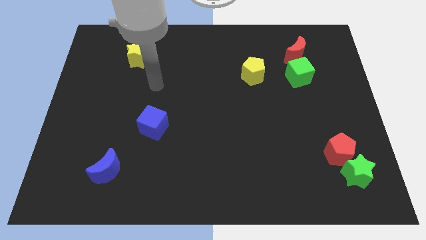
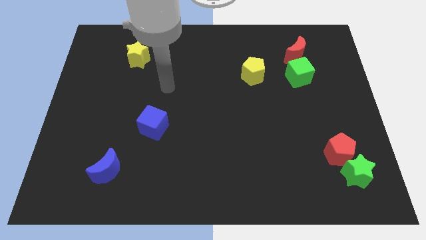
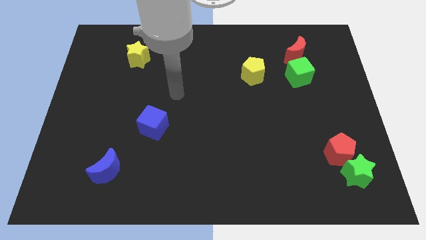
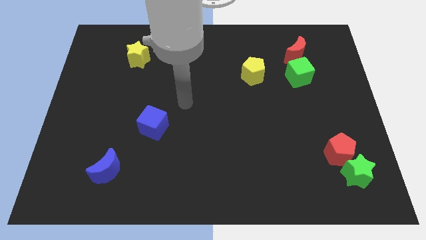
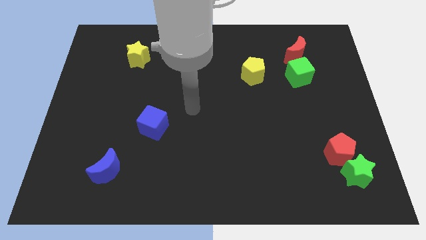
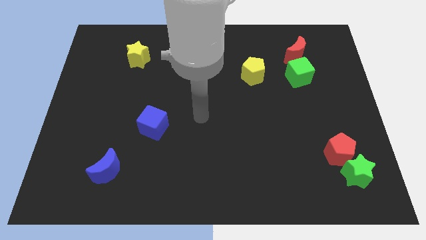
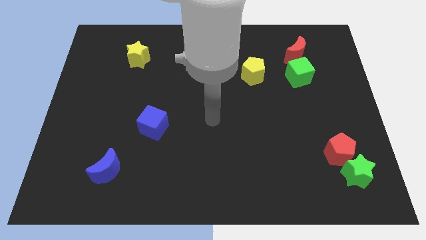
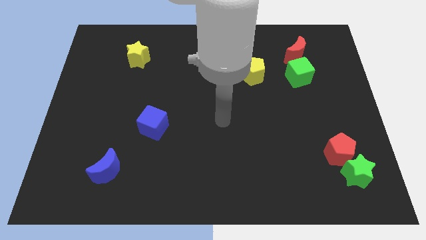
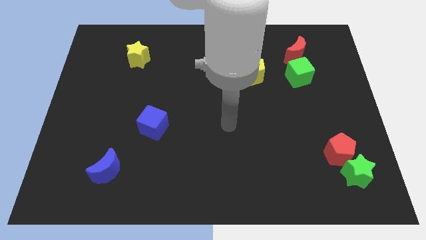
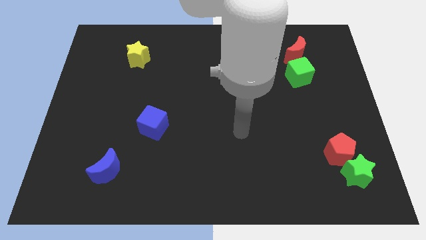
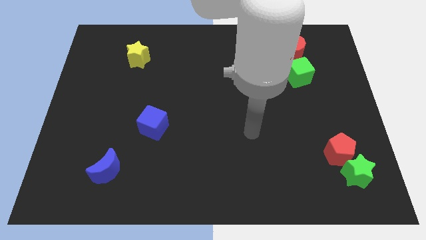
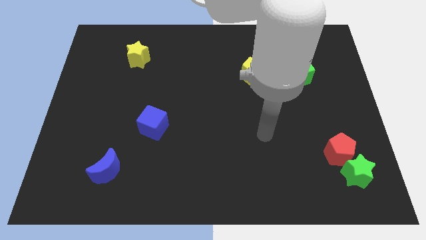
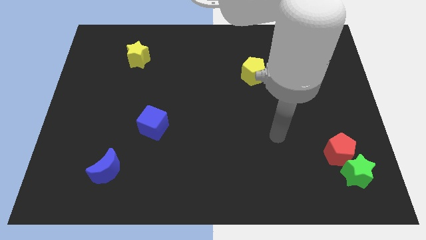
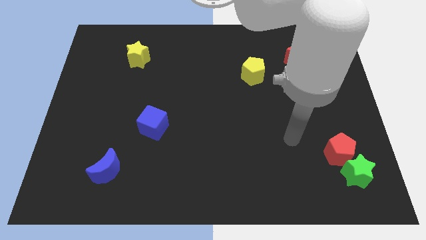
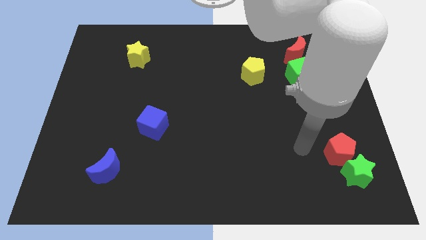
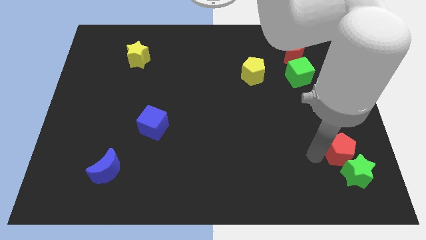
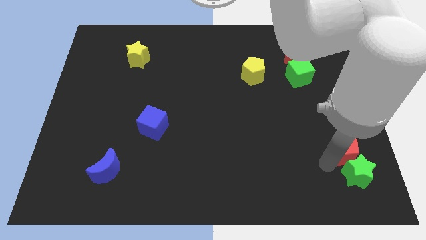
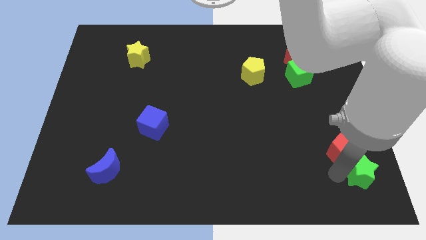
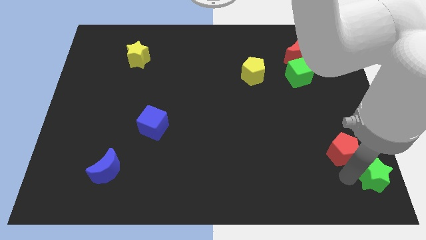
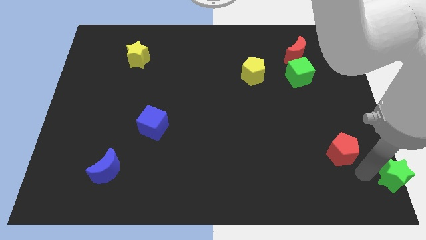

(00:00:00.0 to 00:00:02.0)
pull the red pentagon apart from the green star

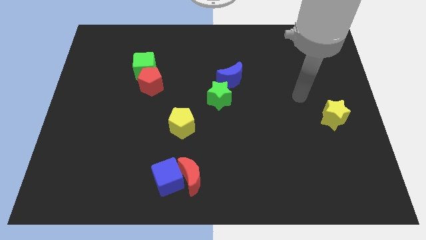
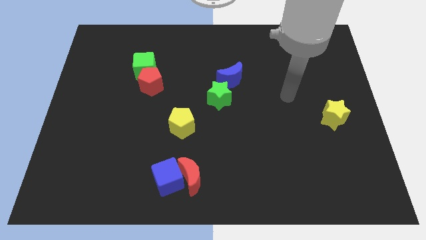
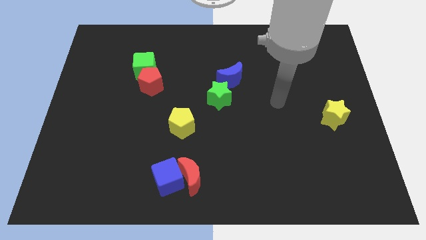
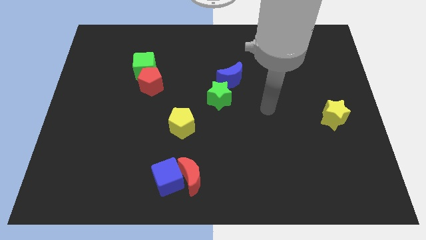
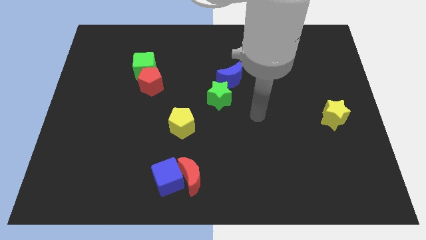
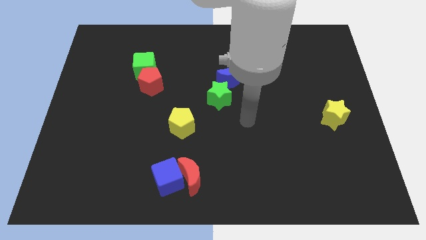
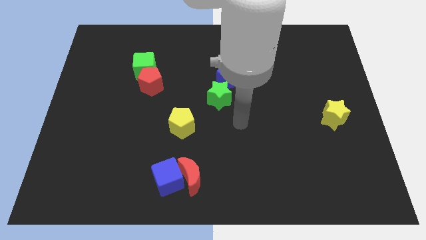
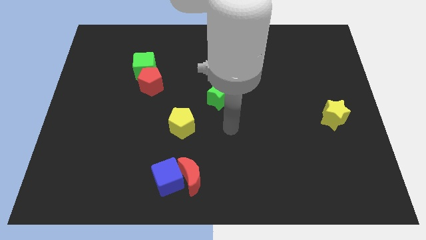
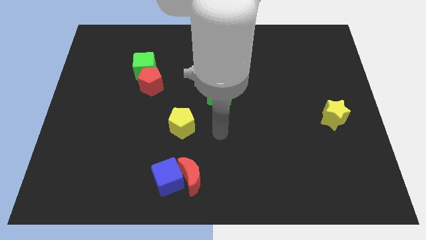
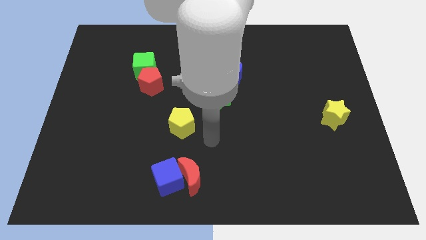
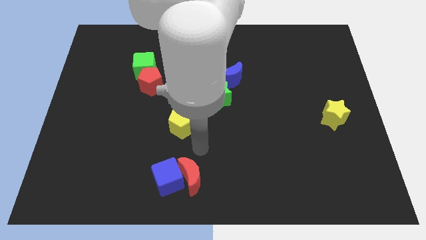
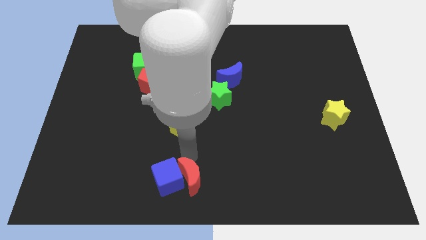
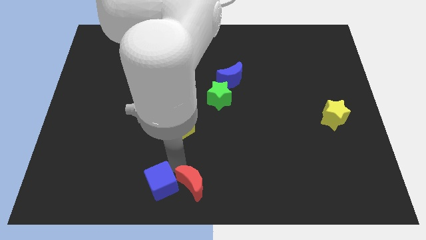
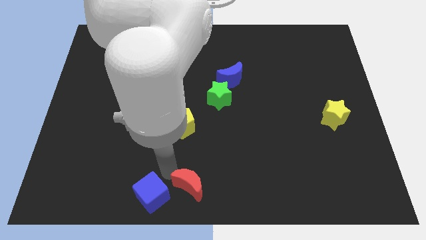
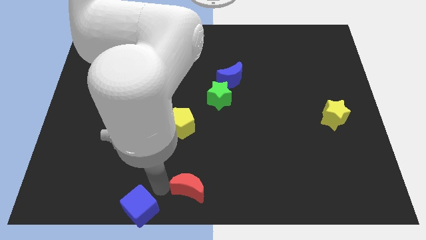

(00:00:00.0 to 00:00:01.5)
move the red moon away from the blue cube

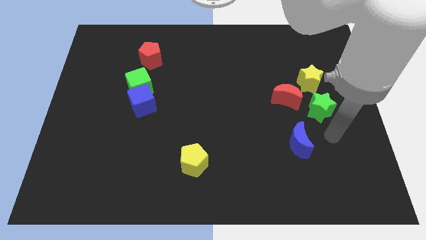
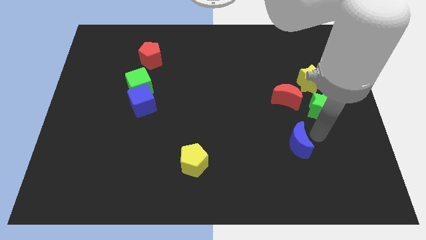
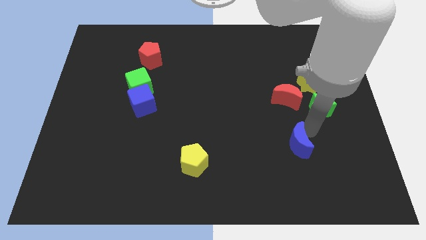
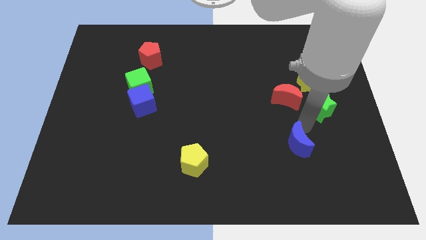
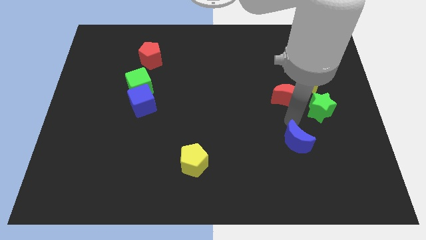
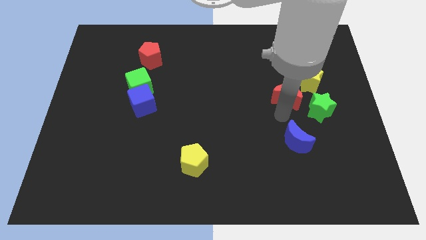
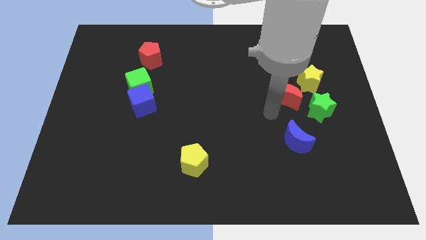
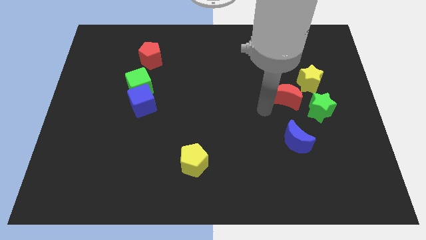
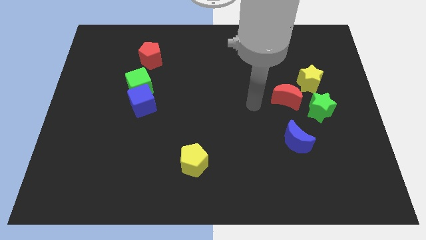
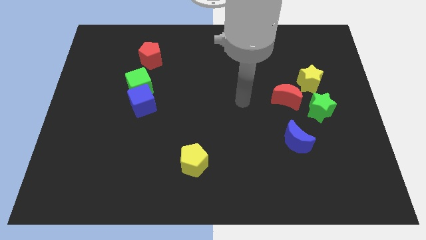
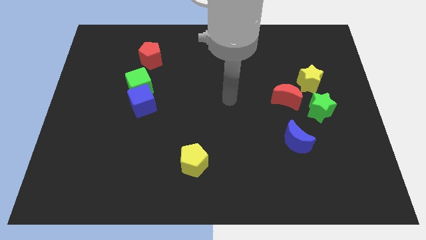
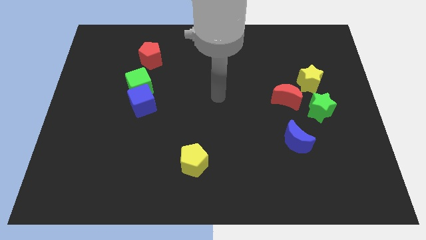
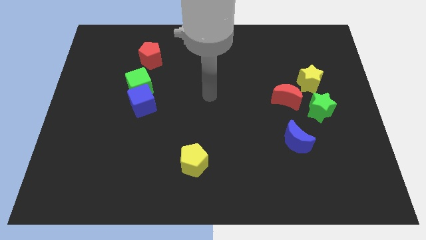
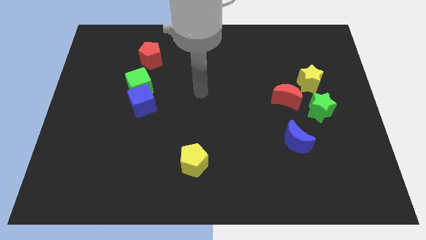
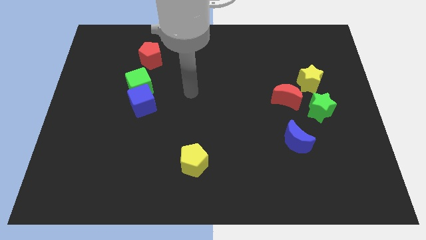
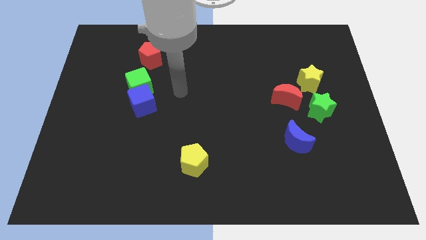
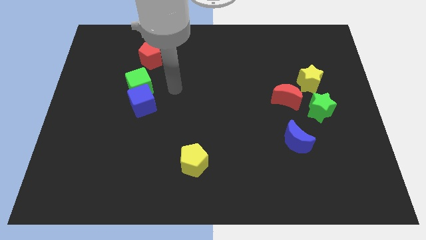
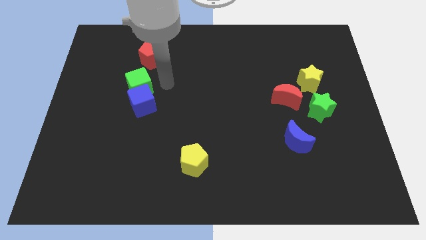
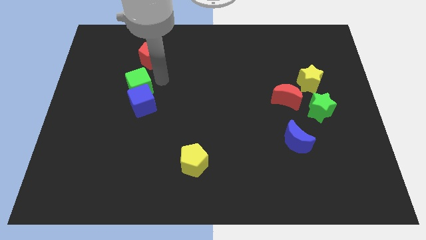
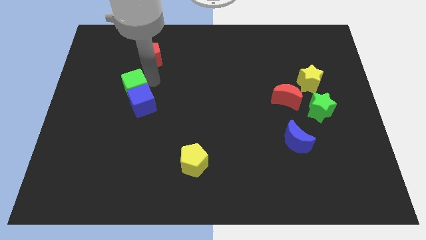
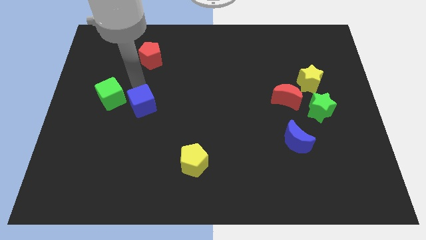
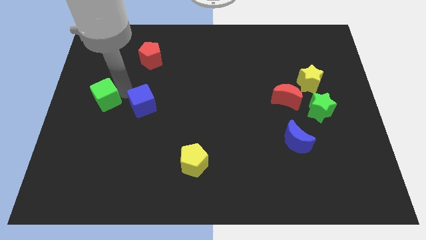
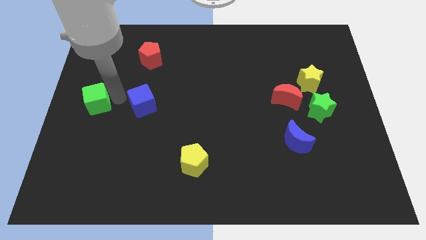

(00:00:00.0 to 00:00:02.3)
move the blue cube away from the green cube

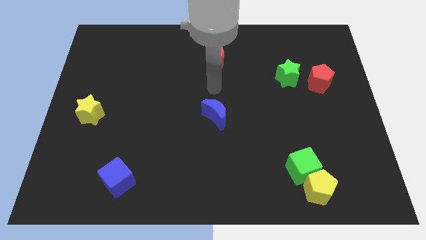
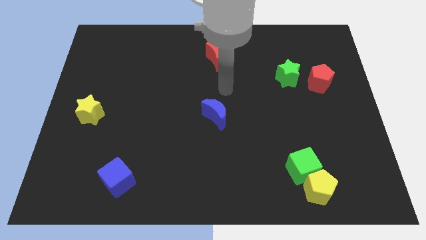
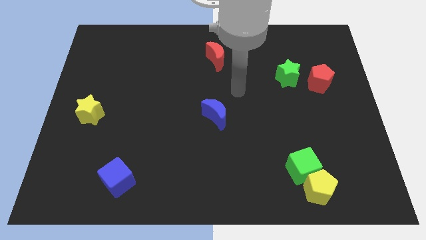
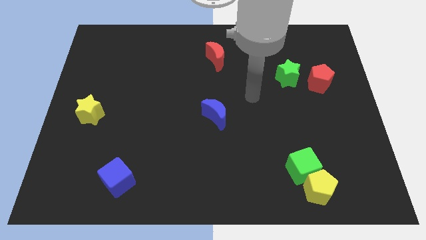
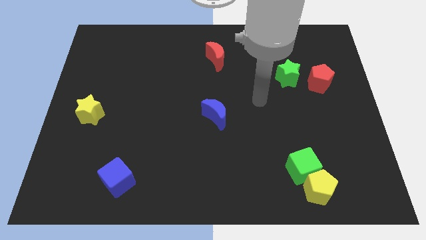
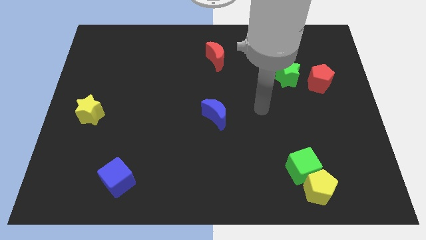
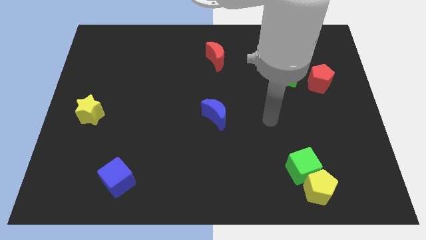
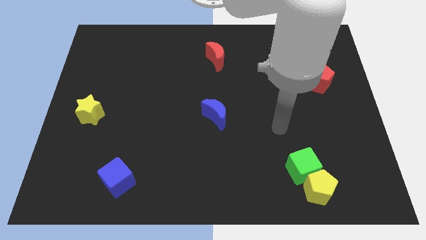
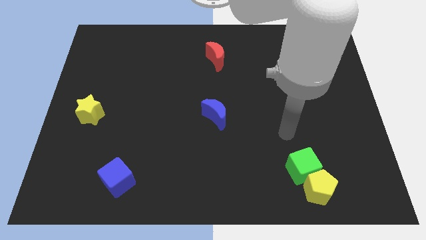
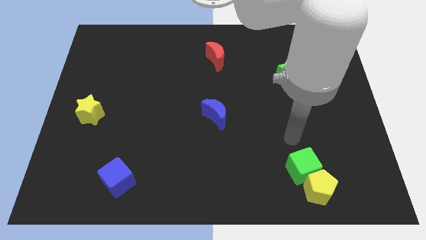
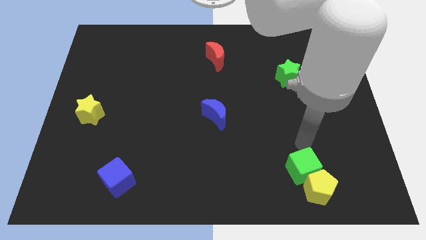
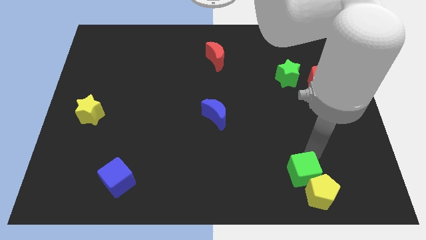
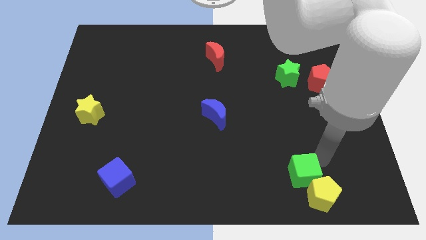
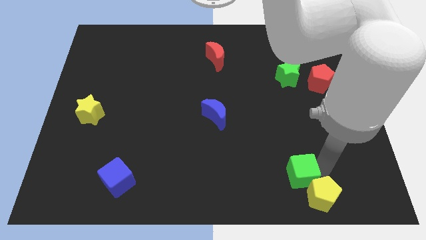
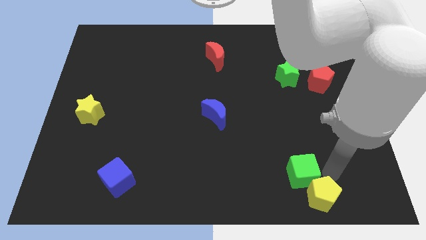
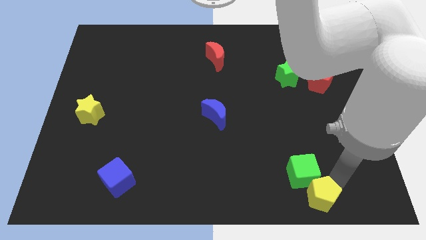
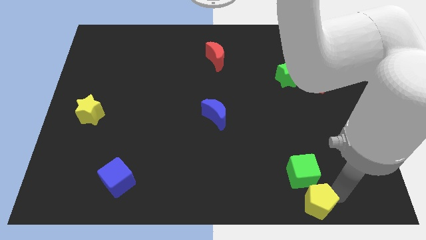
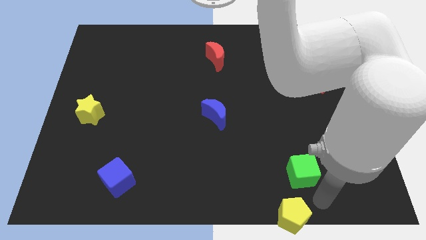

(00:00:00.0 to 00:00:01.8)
pull the green cube apart from the yellow pentagon

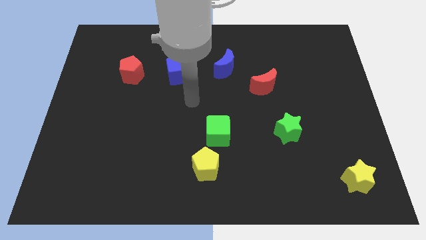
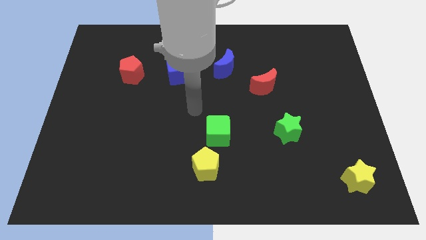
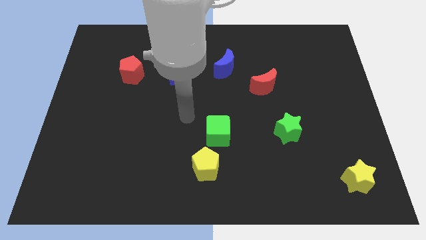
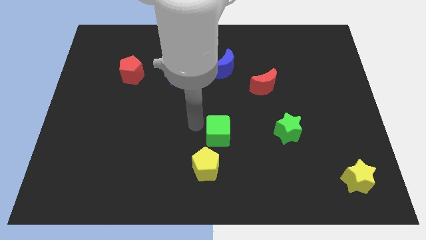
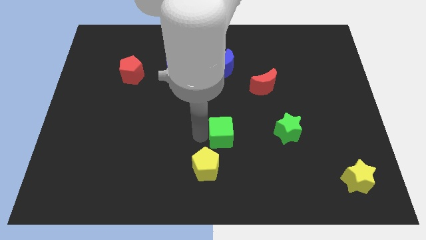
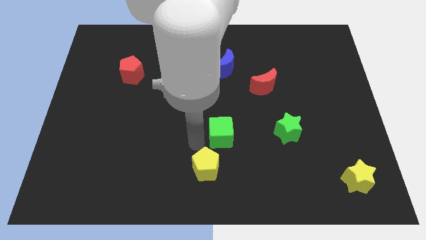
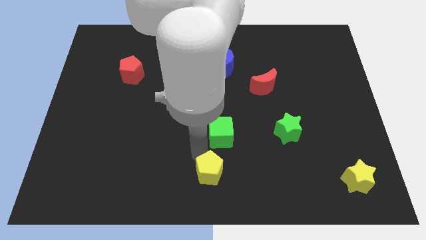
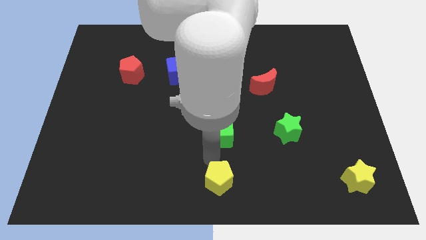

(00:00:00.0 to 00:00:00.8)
separate the green cube from the yellow pentagon

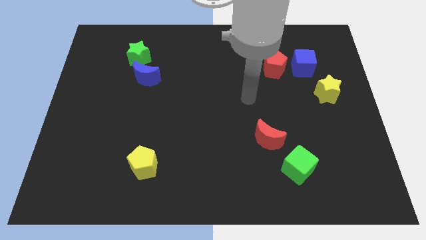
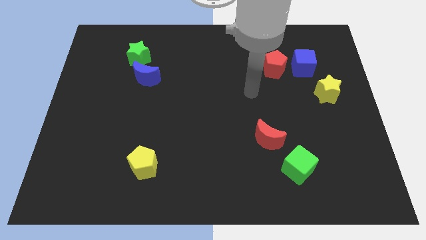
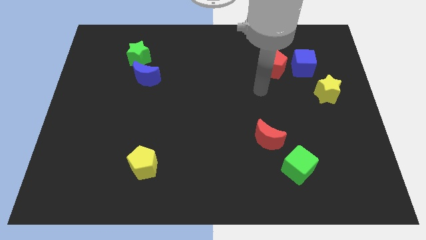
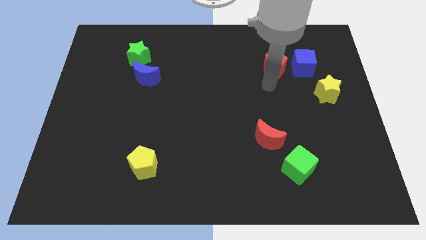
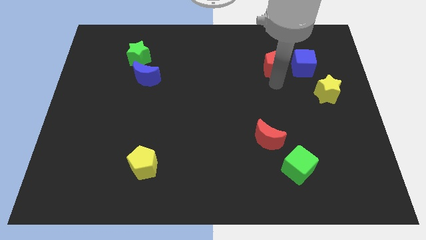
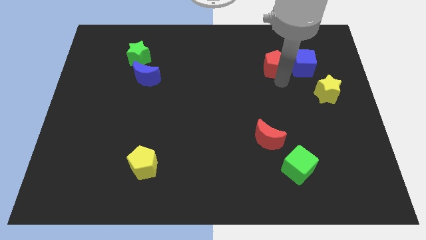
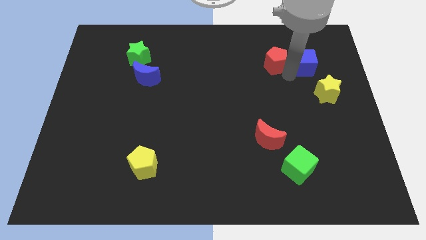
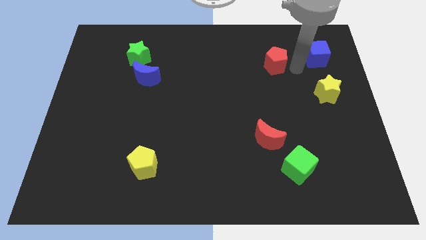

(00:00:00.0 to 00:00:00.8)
separate the red pentagon from the blue cube
